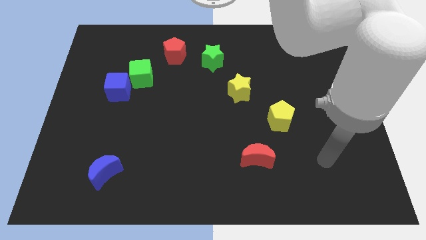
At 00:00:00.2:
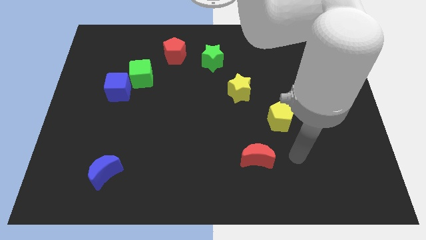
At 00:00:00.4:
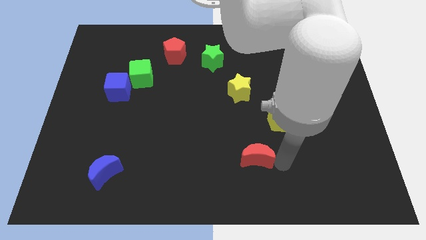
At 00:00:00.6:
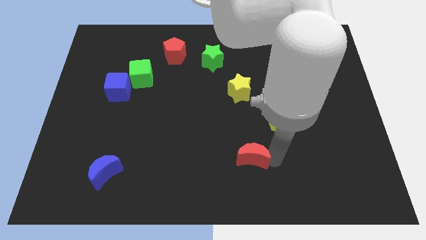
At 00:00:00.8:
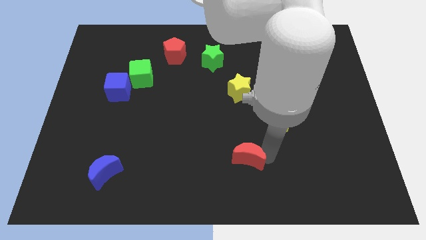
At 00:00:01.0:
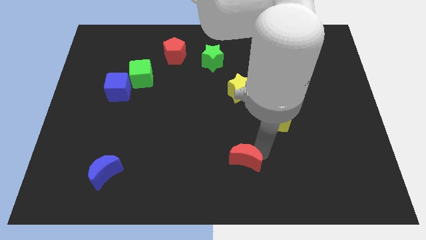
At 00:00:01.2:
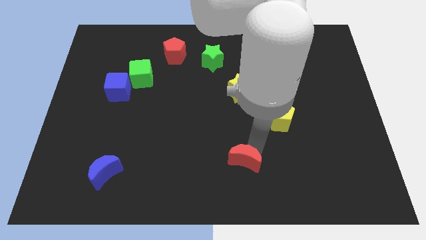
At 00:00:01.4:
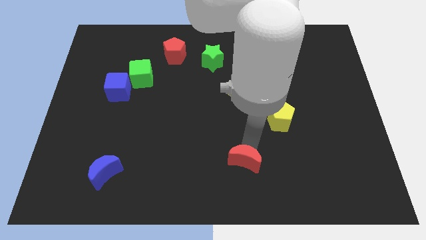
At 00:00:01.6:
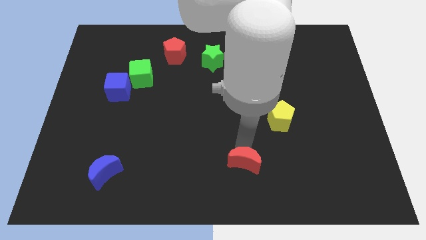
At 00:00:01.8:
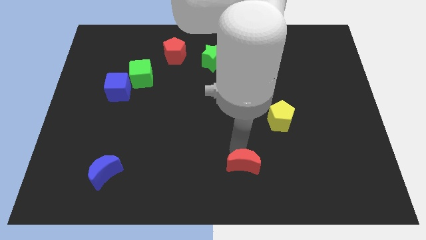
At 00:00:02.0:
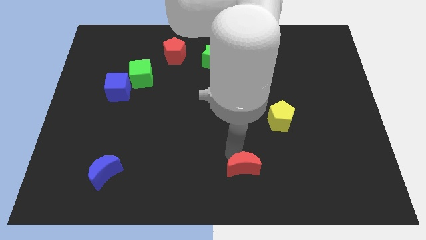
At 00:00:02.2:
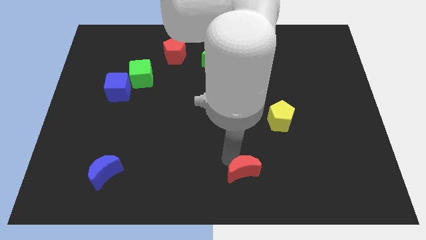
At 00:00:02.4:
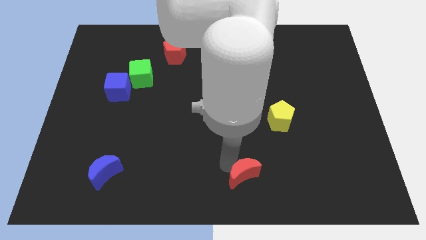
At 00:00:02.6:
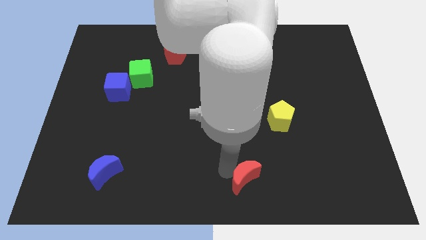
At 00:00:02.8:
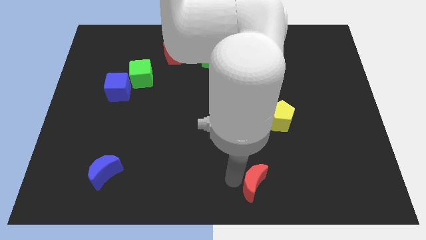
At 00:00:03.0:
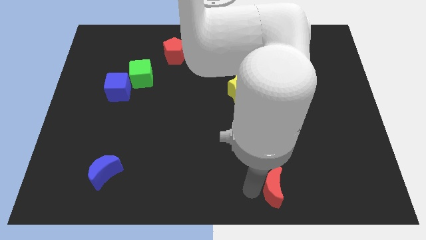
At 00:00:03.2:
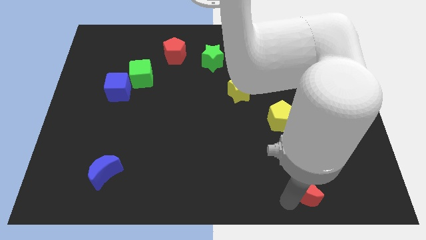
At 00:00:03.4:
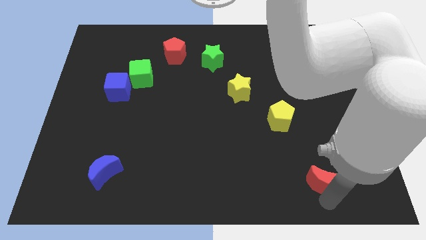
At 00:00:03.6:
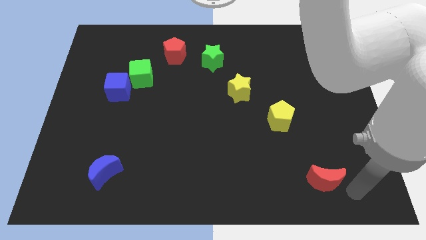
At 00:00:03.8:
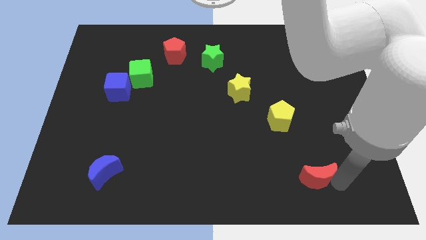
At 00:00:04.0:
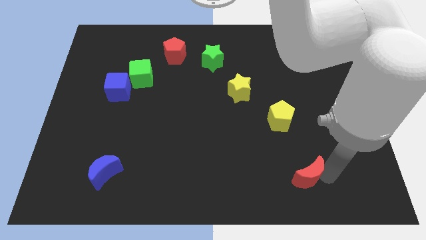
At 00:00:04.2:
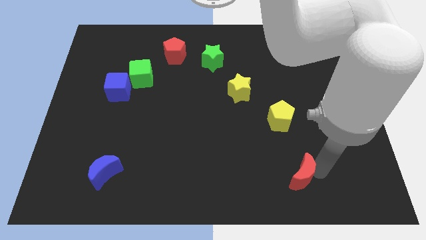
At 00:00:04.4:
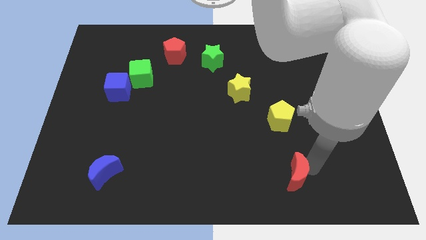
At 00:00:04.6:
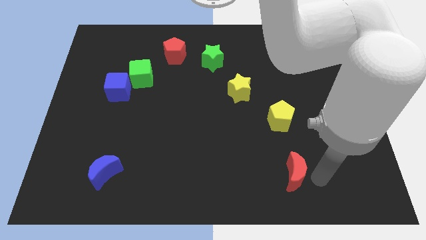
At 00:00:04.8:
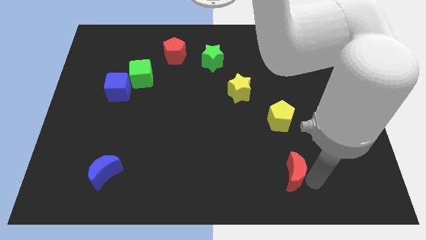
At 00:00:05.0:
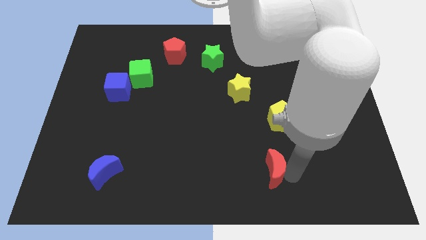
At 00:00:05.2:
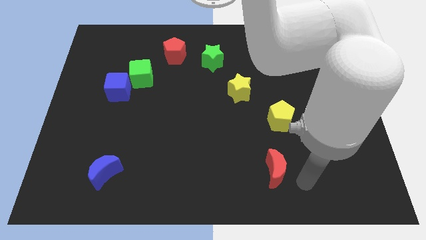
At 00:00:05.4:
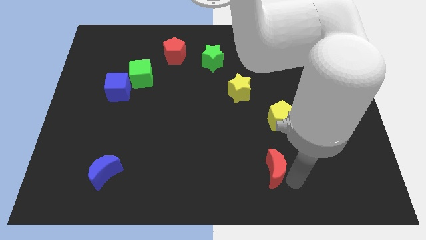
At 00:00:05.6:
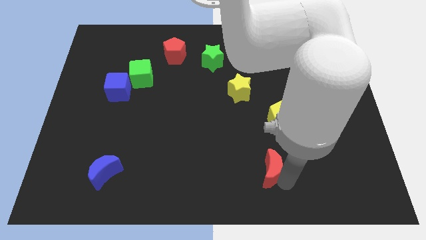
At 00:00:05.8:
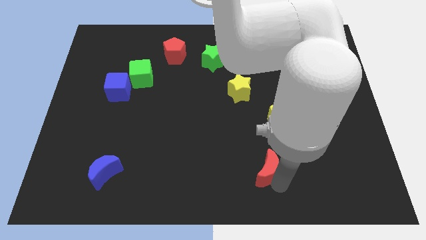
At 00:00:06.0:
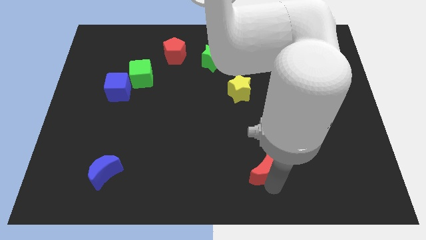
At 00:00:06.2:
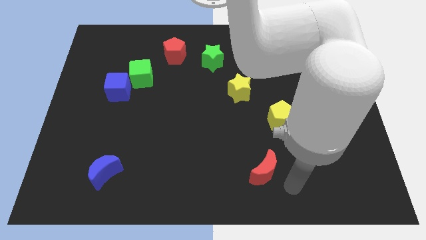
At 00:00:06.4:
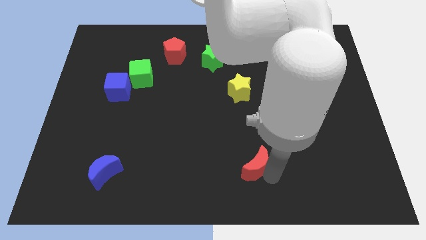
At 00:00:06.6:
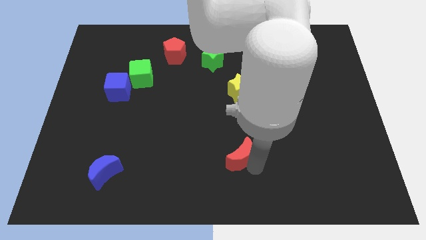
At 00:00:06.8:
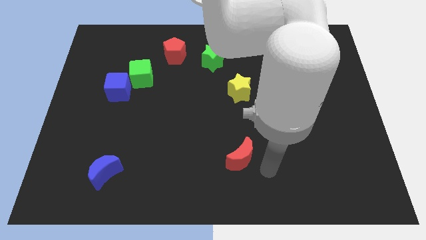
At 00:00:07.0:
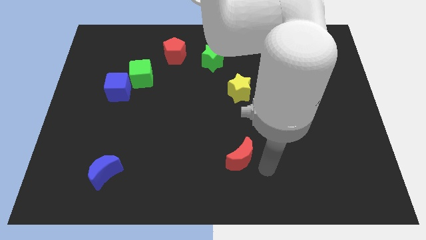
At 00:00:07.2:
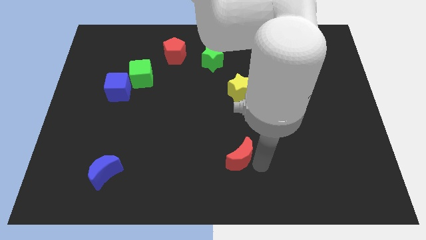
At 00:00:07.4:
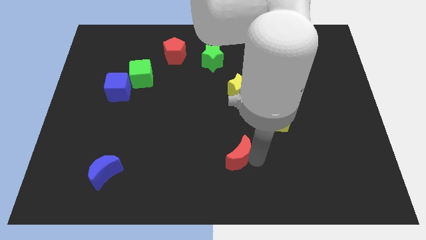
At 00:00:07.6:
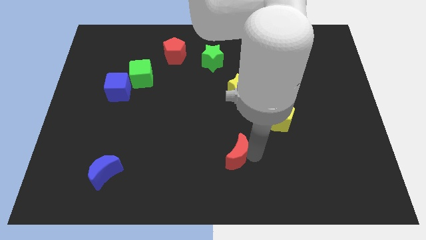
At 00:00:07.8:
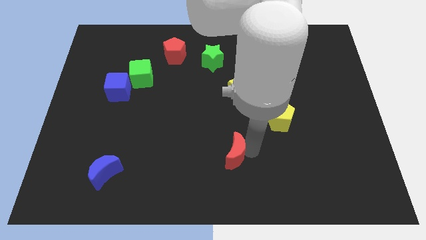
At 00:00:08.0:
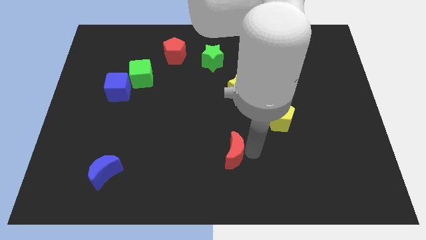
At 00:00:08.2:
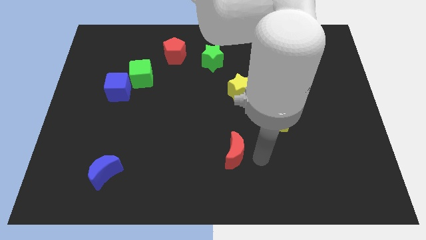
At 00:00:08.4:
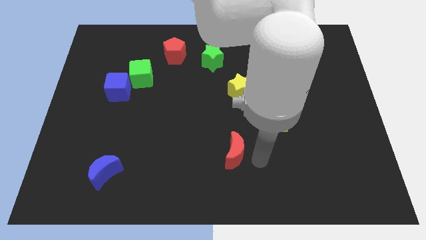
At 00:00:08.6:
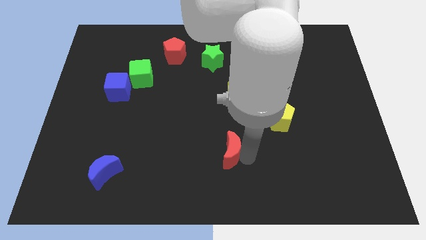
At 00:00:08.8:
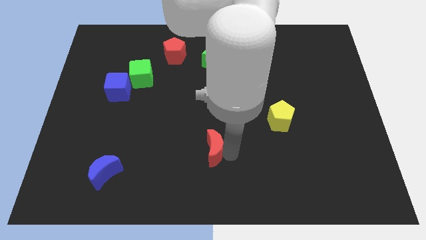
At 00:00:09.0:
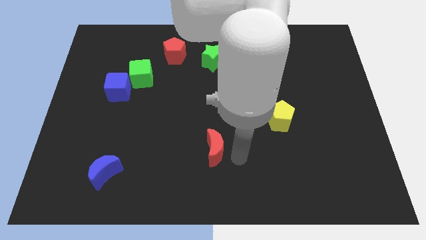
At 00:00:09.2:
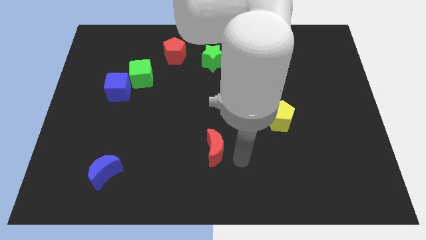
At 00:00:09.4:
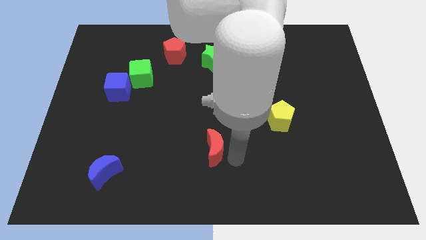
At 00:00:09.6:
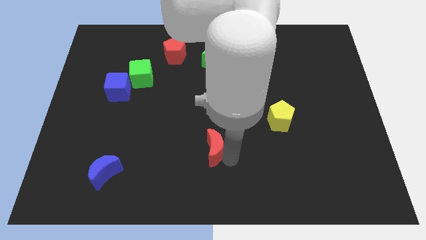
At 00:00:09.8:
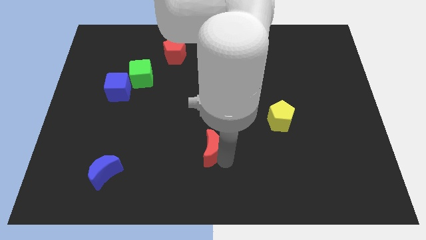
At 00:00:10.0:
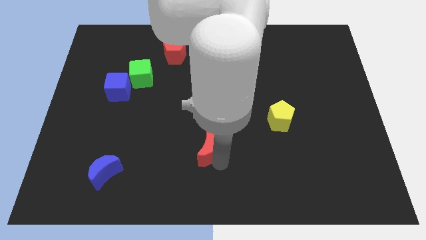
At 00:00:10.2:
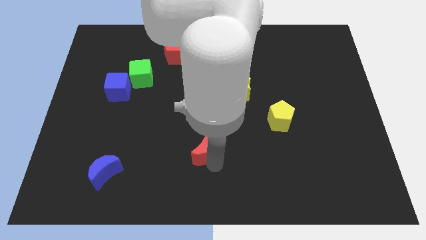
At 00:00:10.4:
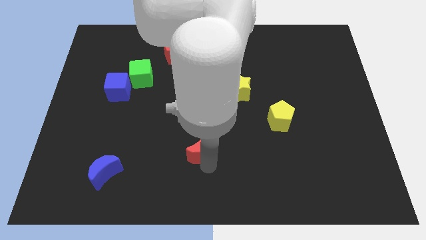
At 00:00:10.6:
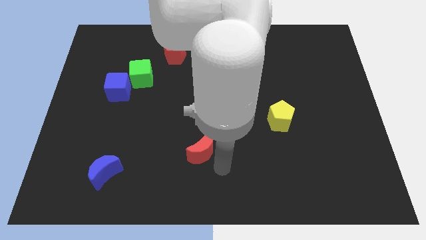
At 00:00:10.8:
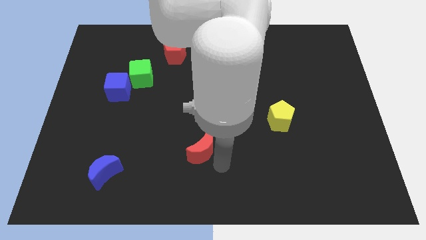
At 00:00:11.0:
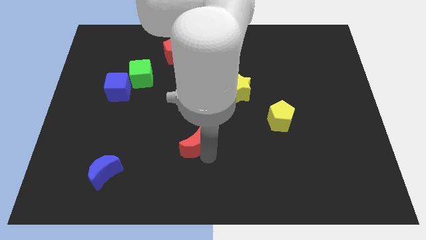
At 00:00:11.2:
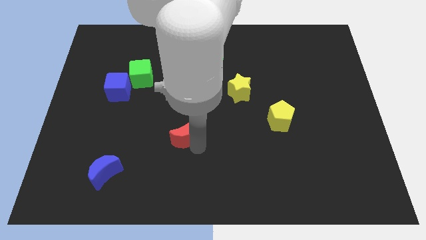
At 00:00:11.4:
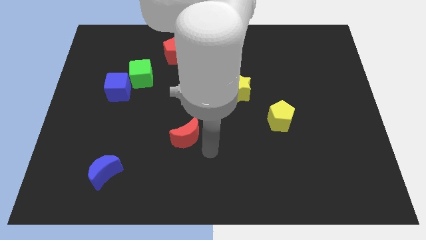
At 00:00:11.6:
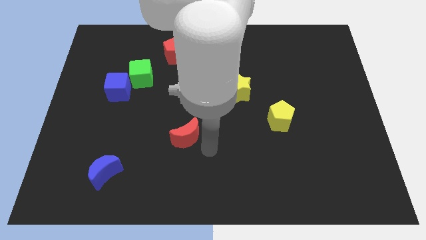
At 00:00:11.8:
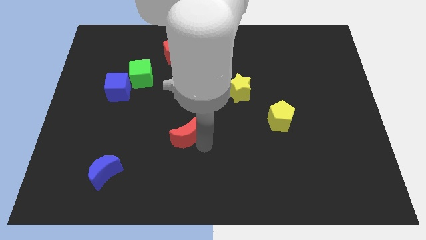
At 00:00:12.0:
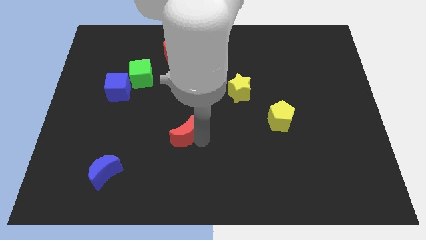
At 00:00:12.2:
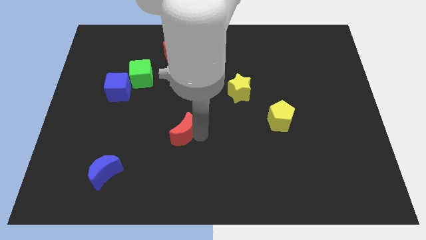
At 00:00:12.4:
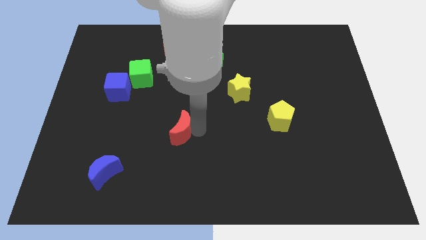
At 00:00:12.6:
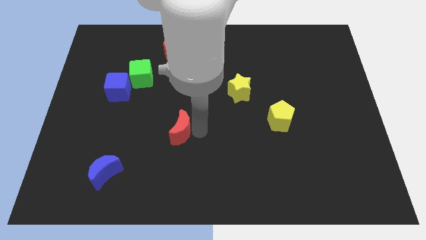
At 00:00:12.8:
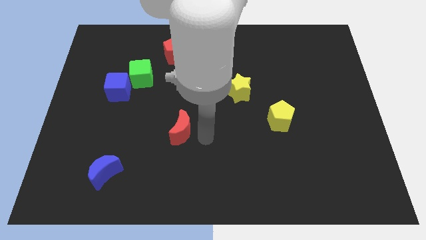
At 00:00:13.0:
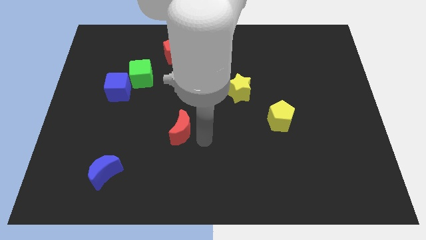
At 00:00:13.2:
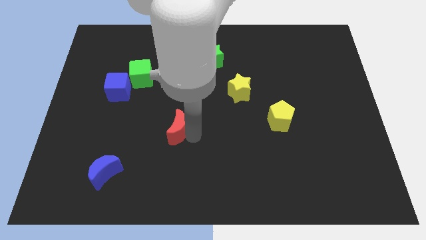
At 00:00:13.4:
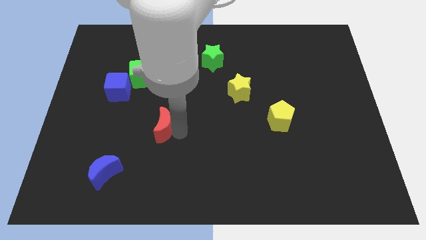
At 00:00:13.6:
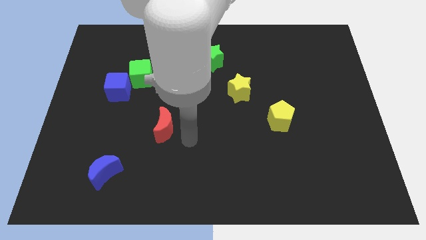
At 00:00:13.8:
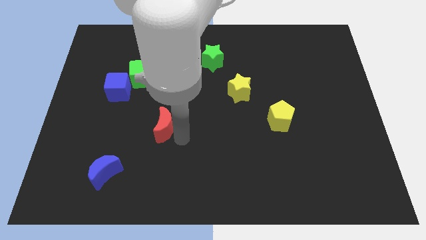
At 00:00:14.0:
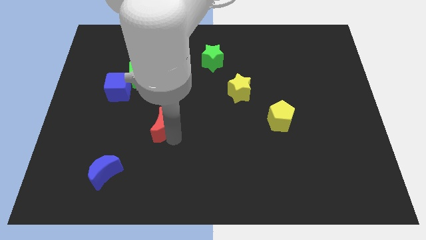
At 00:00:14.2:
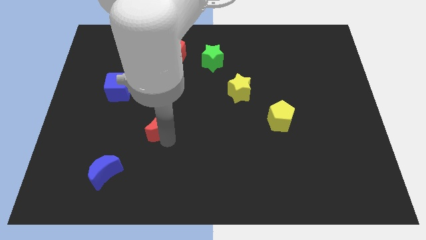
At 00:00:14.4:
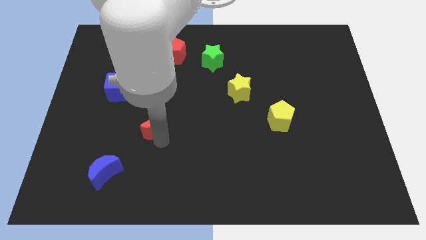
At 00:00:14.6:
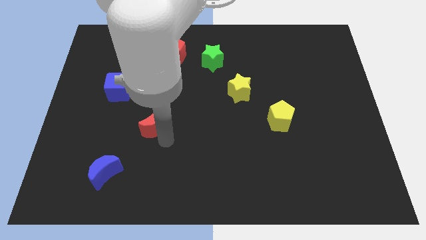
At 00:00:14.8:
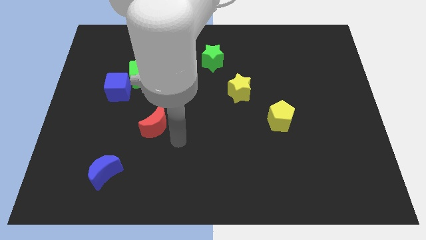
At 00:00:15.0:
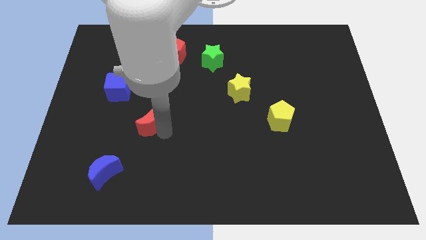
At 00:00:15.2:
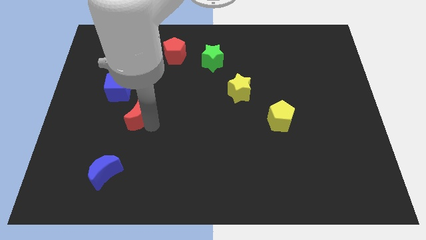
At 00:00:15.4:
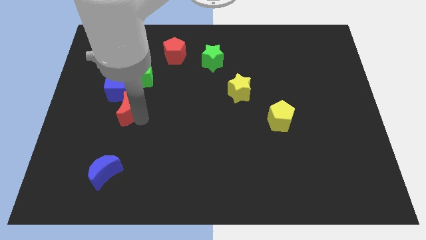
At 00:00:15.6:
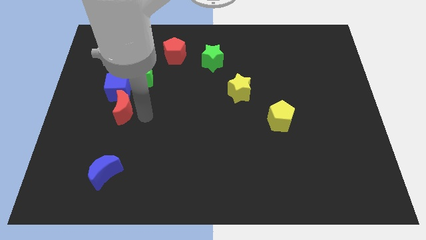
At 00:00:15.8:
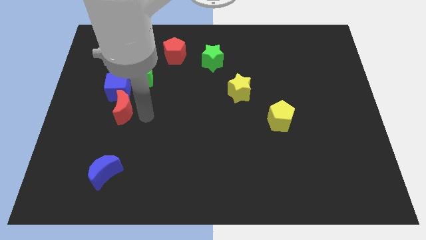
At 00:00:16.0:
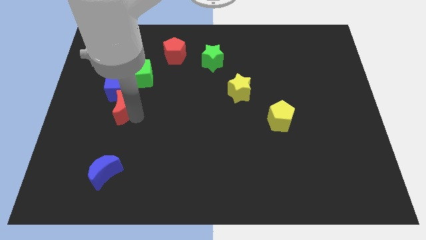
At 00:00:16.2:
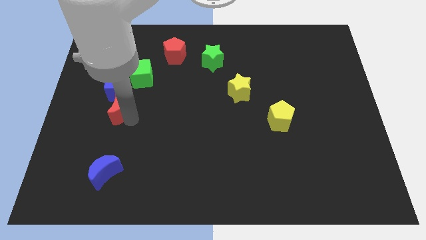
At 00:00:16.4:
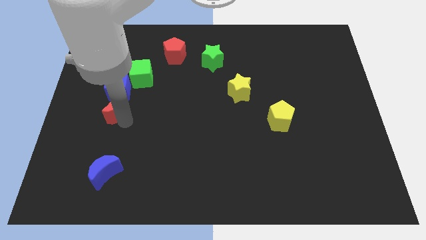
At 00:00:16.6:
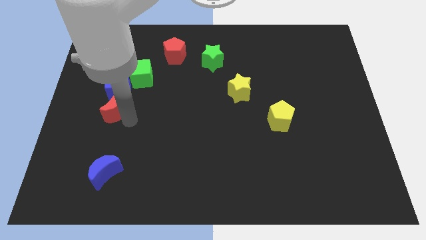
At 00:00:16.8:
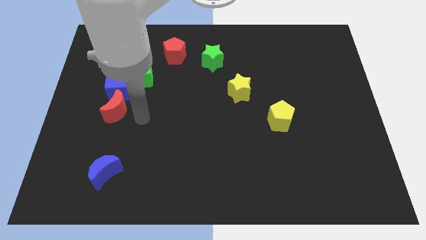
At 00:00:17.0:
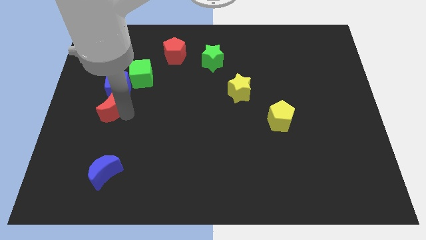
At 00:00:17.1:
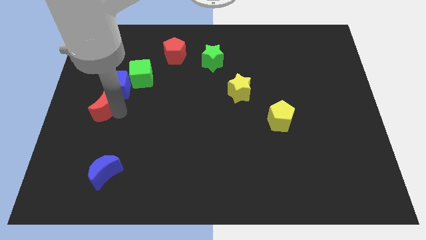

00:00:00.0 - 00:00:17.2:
push the red moon to the center left
